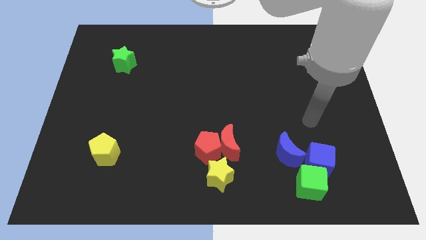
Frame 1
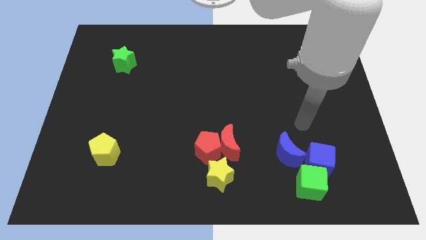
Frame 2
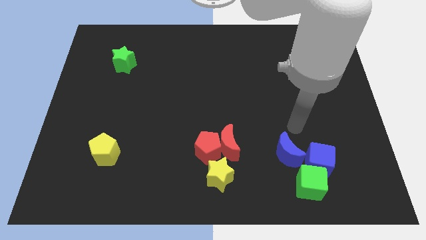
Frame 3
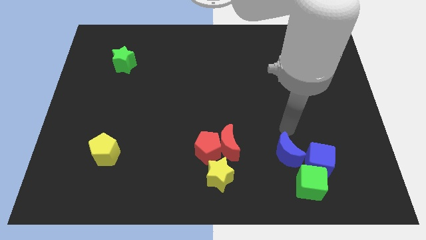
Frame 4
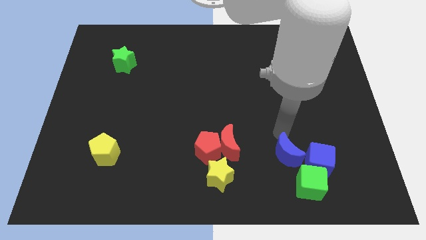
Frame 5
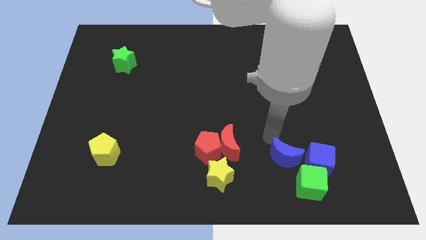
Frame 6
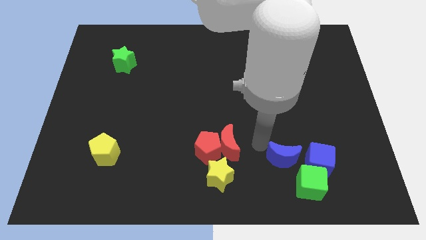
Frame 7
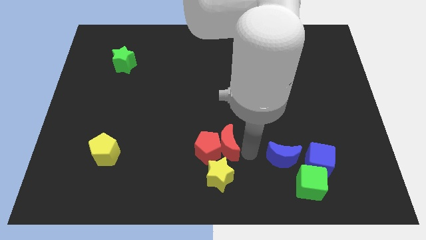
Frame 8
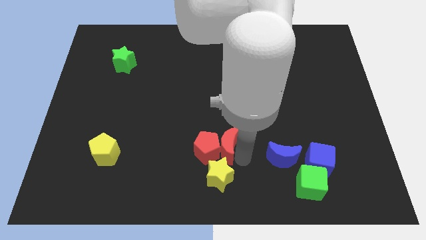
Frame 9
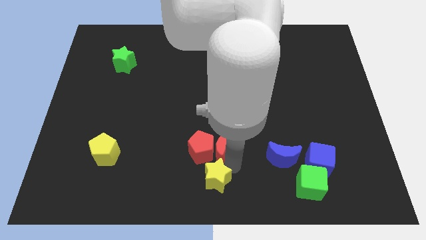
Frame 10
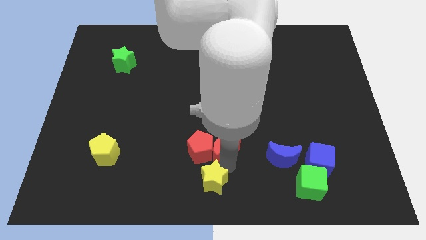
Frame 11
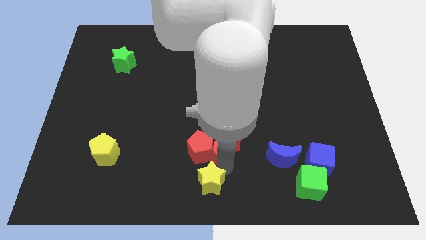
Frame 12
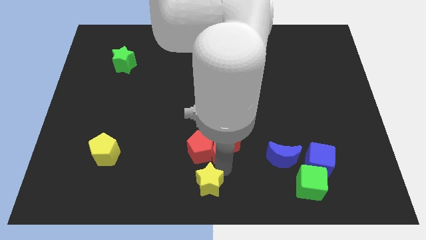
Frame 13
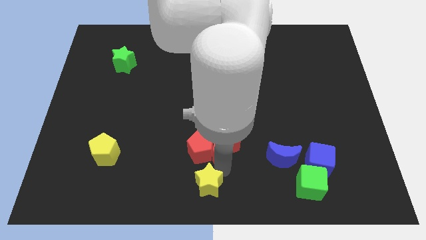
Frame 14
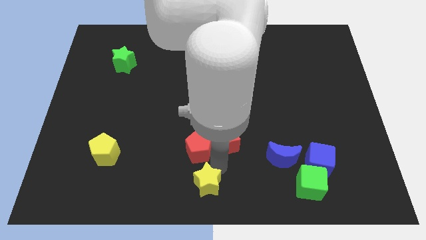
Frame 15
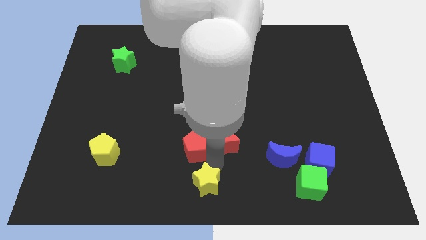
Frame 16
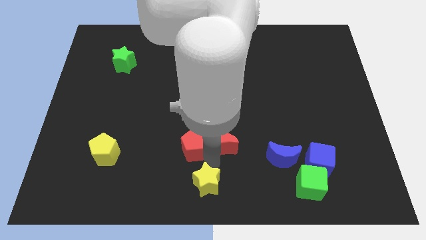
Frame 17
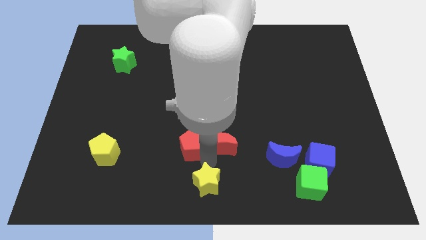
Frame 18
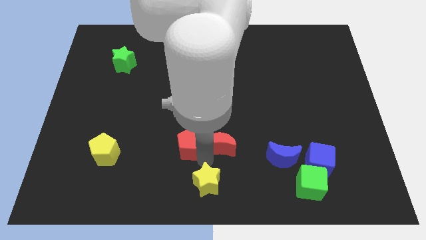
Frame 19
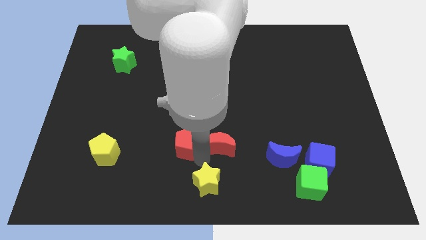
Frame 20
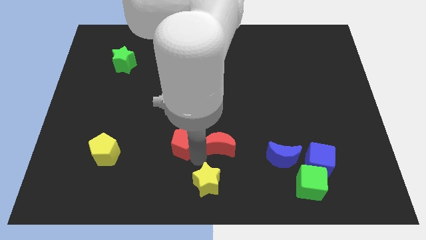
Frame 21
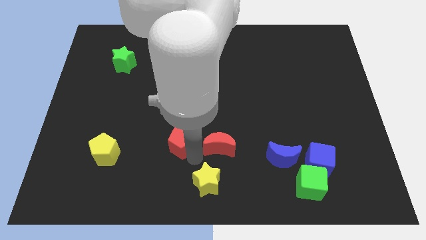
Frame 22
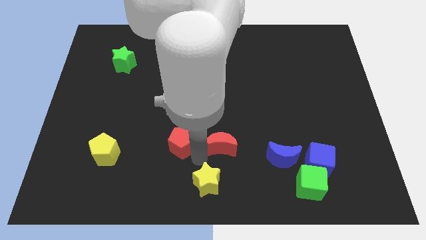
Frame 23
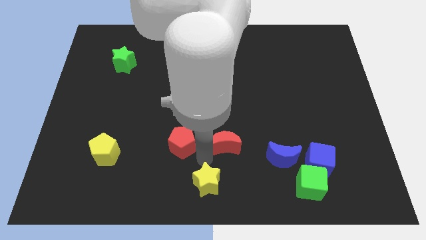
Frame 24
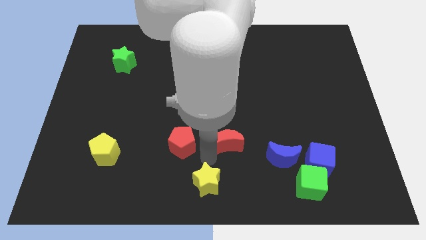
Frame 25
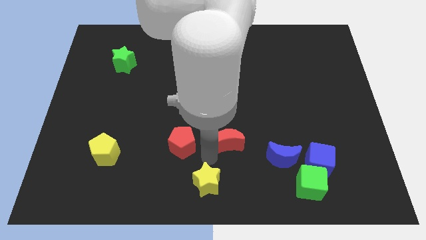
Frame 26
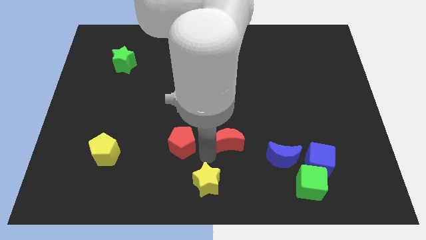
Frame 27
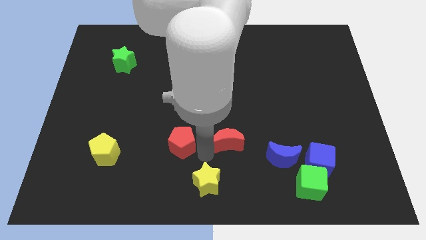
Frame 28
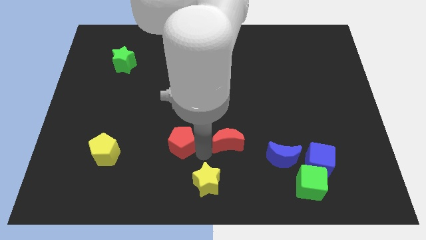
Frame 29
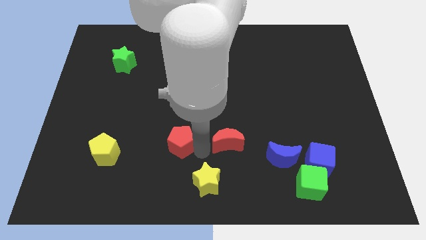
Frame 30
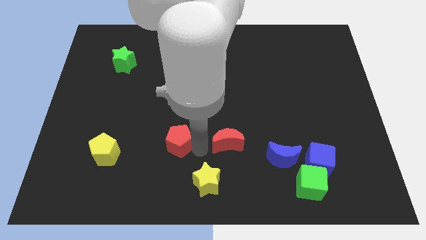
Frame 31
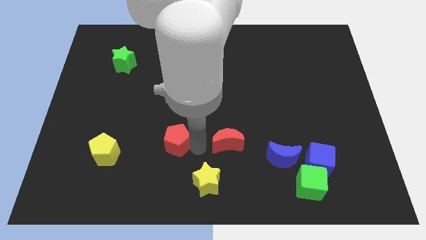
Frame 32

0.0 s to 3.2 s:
move the red pentagon away from the red moon and yellow star

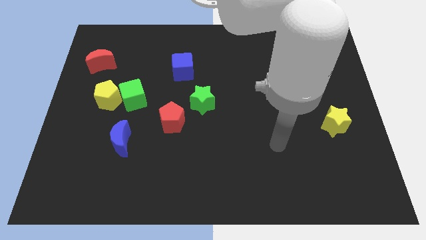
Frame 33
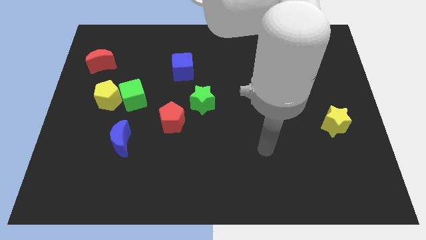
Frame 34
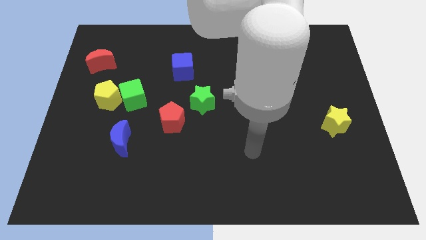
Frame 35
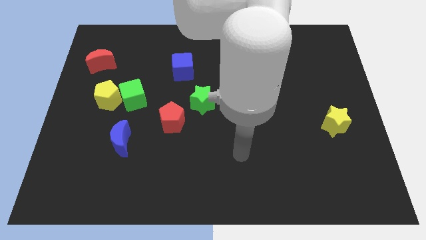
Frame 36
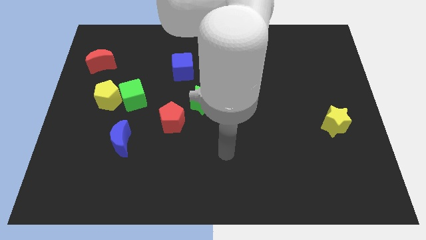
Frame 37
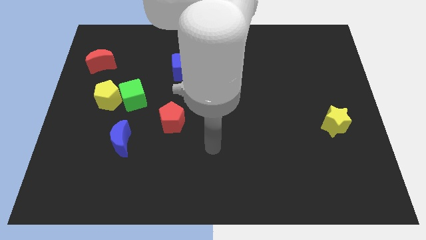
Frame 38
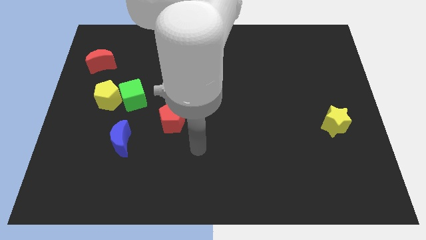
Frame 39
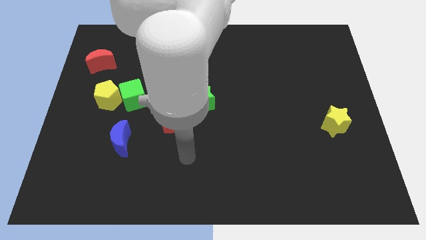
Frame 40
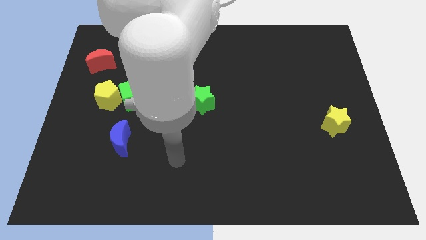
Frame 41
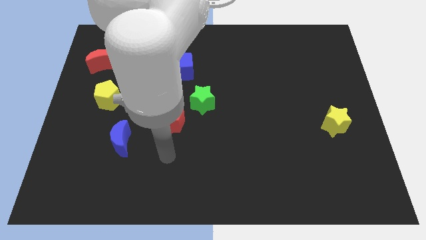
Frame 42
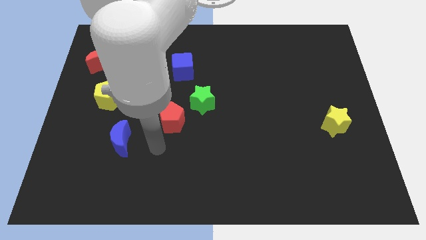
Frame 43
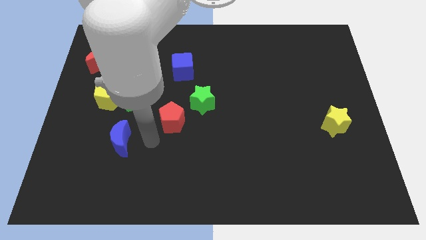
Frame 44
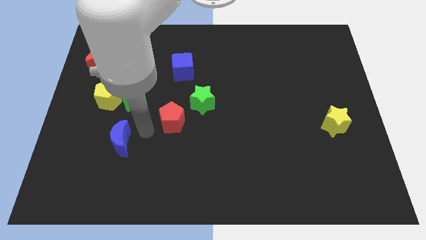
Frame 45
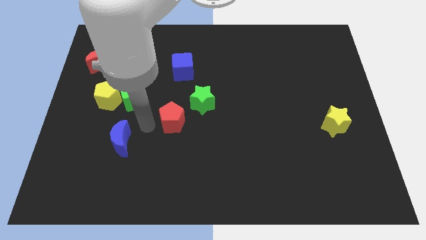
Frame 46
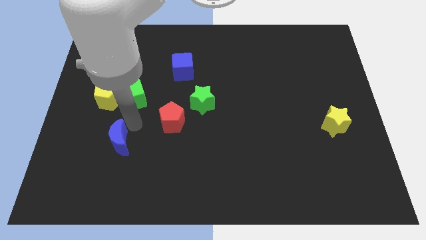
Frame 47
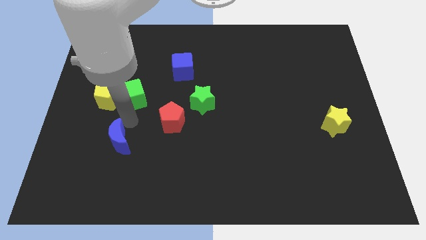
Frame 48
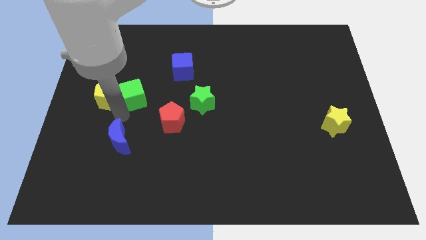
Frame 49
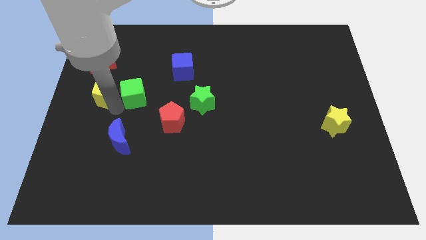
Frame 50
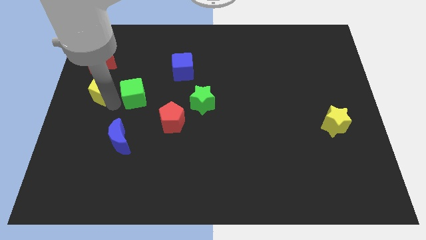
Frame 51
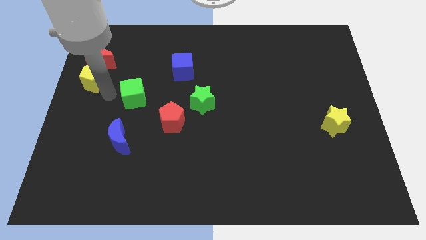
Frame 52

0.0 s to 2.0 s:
pull the green cube apart from the yellow pentagon

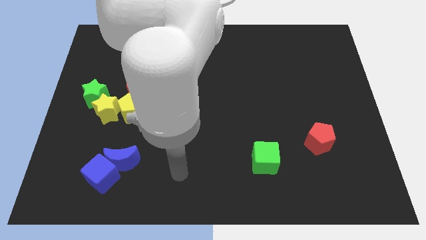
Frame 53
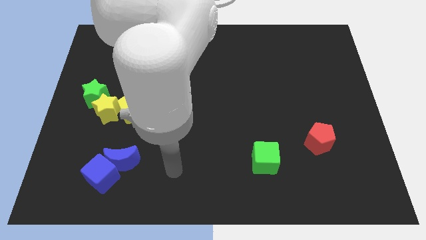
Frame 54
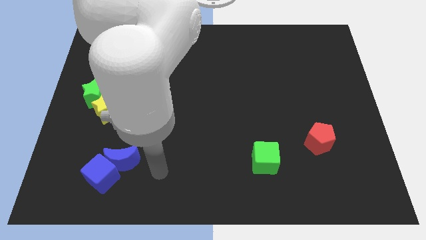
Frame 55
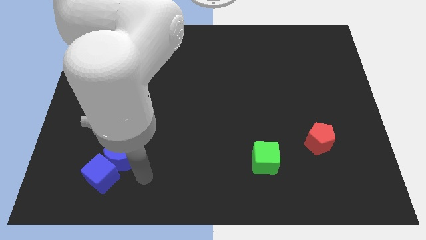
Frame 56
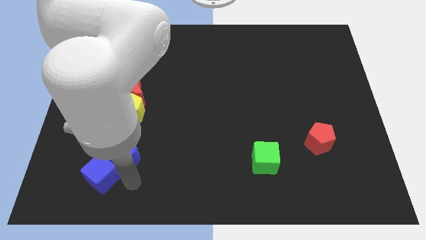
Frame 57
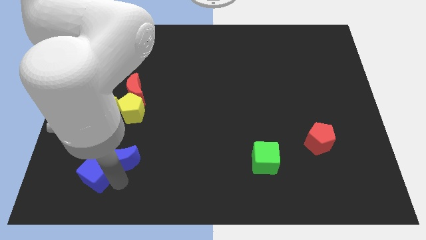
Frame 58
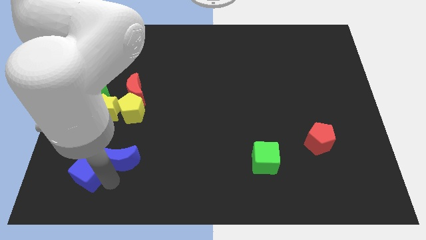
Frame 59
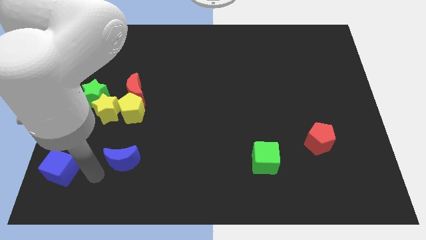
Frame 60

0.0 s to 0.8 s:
pull the blue moon apart from the blue cube

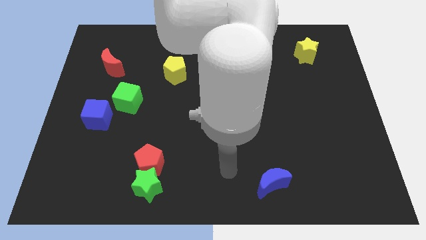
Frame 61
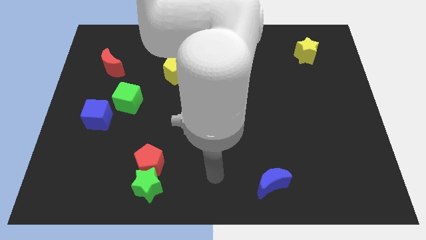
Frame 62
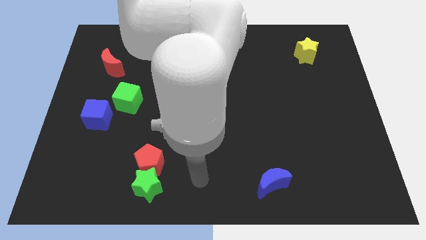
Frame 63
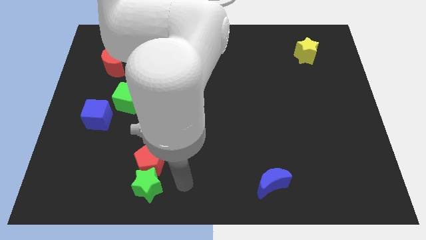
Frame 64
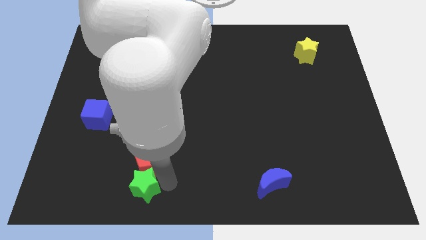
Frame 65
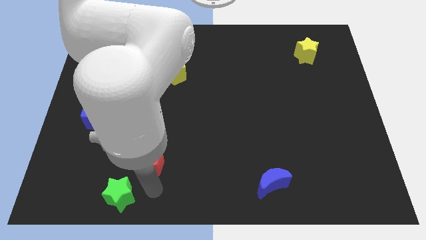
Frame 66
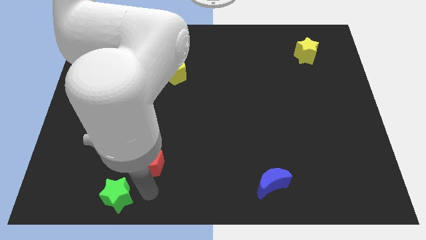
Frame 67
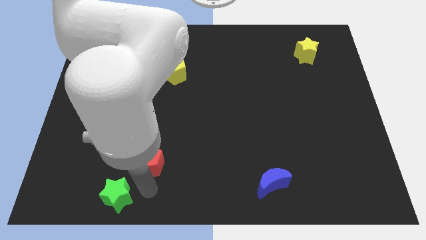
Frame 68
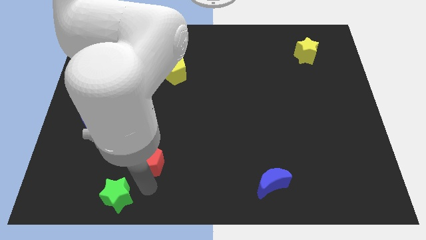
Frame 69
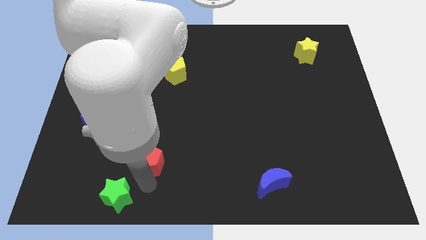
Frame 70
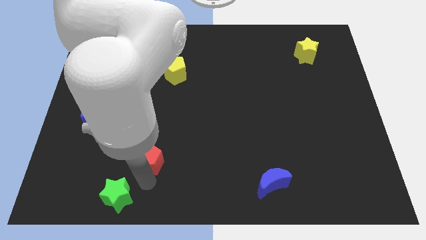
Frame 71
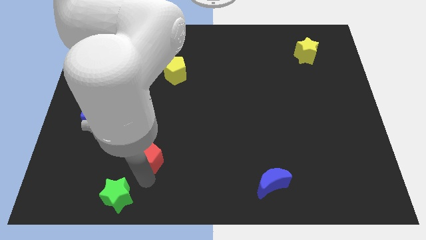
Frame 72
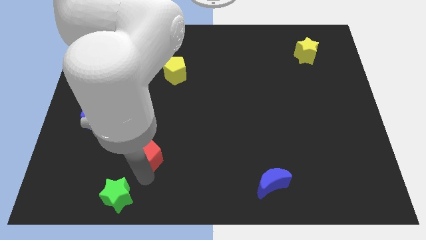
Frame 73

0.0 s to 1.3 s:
pull the red pentagon apart from the green star

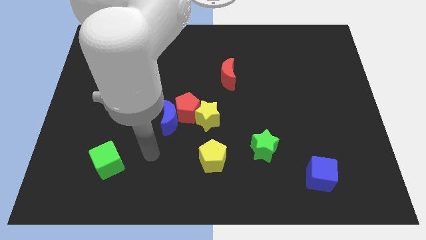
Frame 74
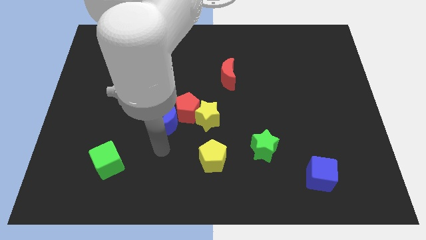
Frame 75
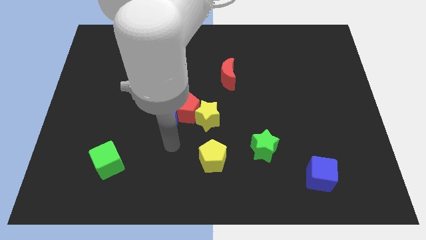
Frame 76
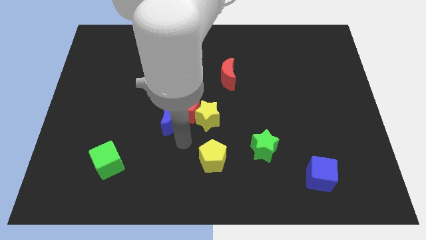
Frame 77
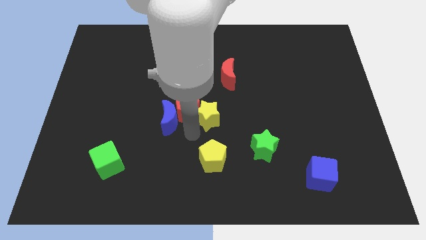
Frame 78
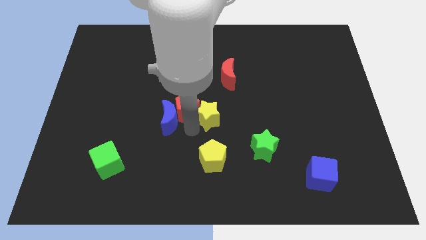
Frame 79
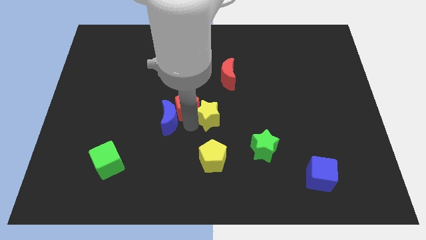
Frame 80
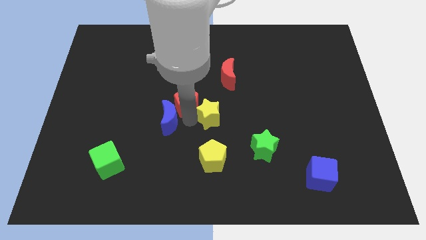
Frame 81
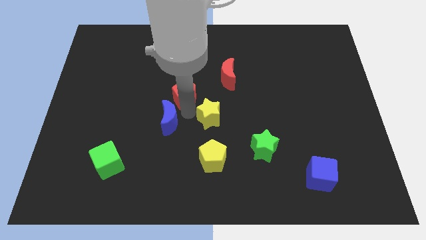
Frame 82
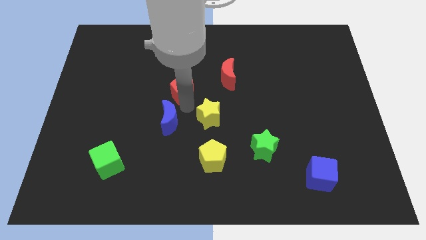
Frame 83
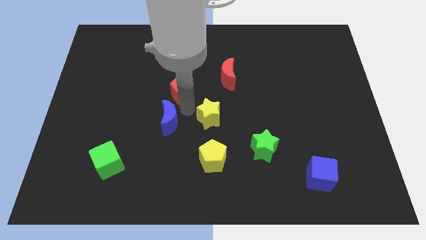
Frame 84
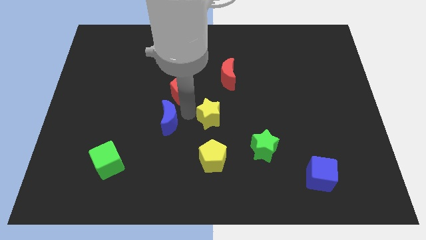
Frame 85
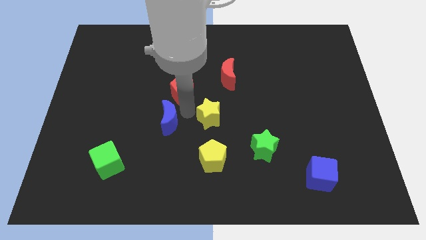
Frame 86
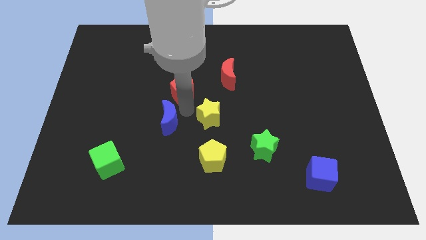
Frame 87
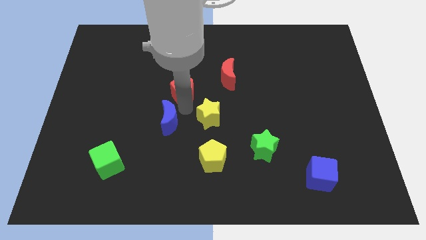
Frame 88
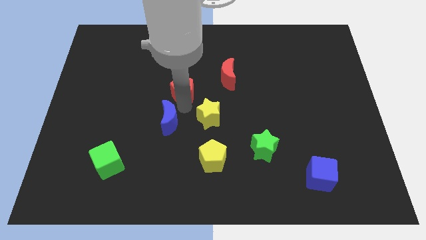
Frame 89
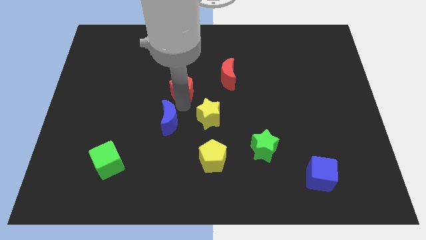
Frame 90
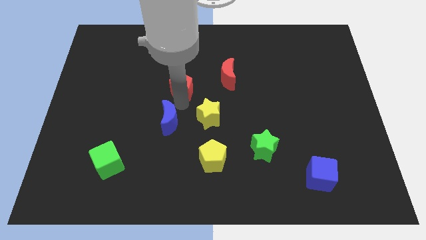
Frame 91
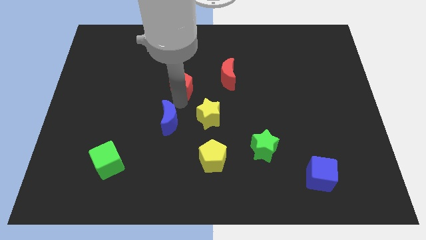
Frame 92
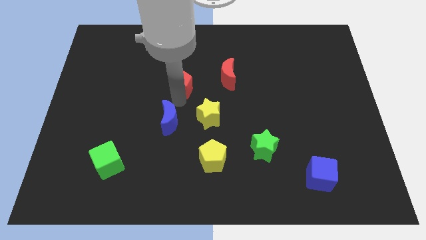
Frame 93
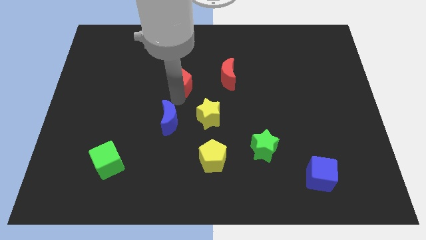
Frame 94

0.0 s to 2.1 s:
move the red pentagon away from the blue moon and yellow star
